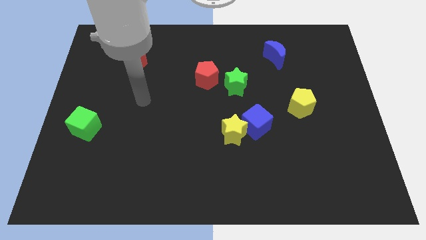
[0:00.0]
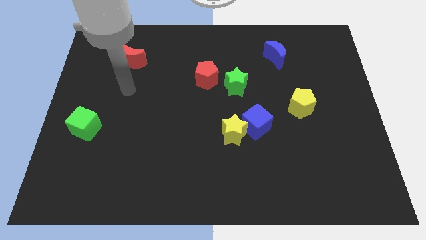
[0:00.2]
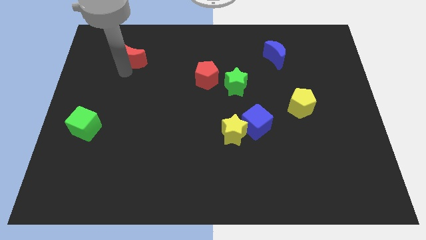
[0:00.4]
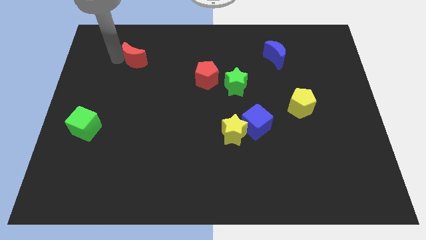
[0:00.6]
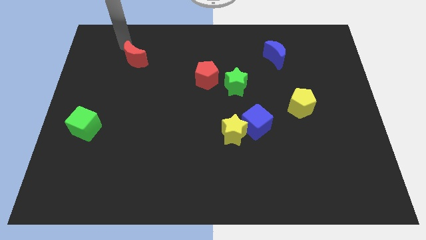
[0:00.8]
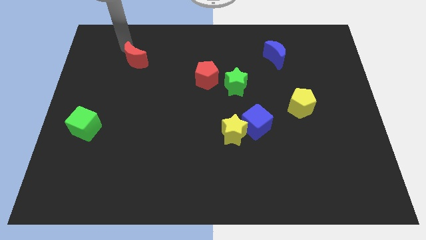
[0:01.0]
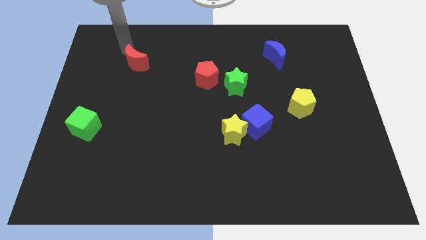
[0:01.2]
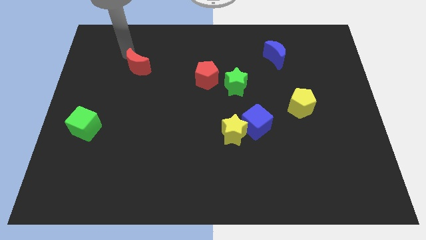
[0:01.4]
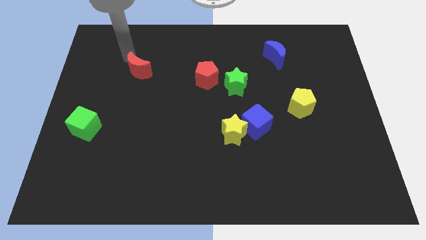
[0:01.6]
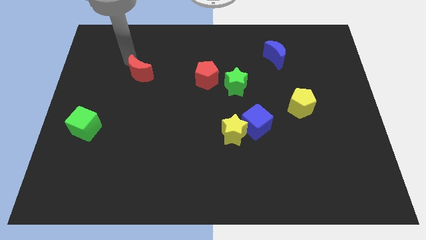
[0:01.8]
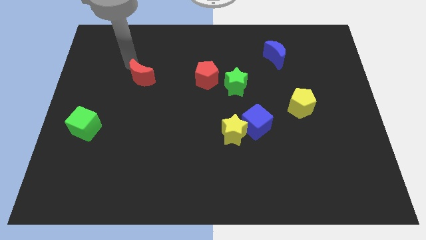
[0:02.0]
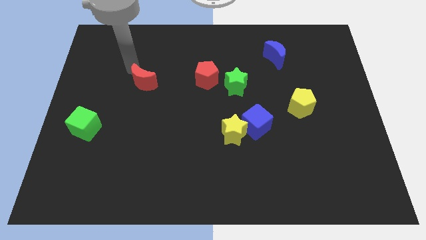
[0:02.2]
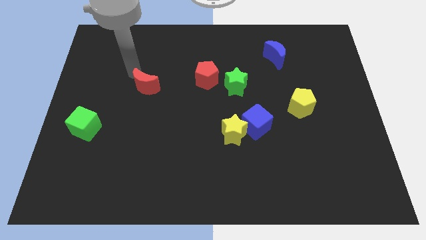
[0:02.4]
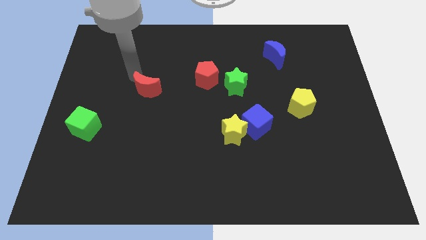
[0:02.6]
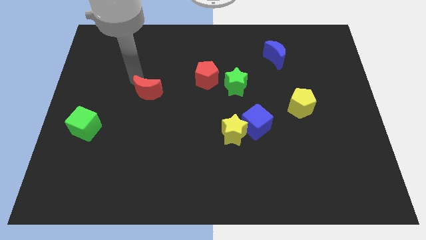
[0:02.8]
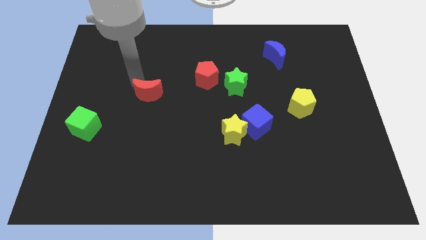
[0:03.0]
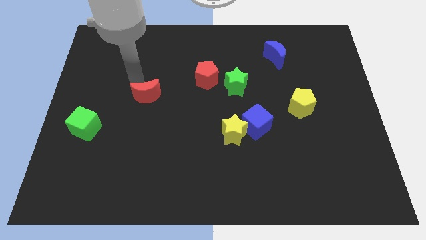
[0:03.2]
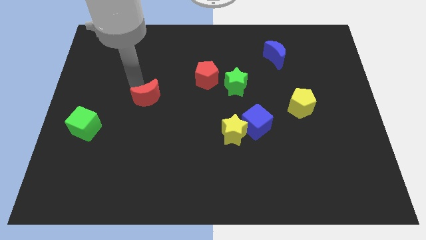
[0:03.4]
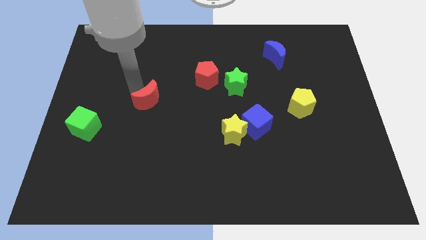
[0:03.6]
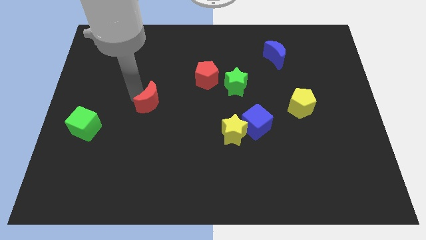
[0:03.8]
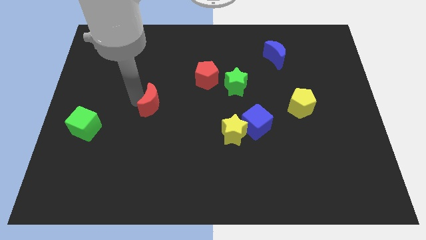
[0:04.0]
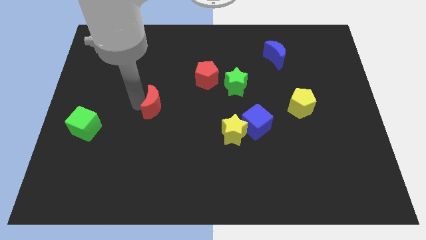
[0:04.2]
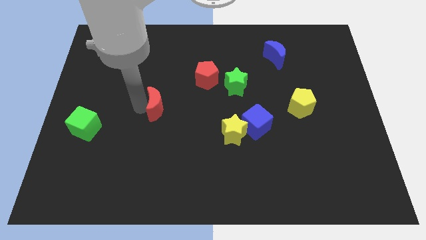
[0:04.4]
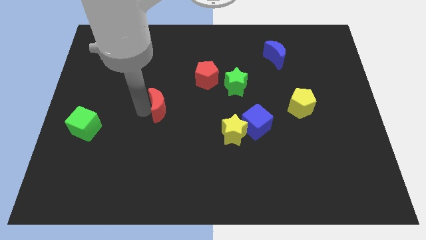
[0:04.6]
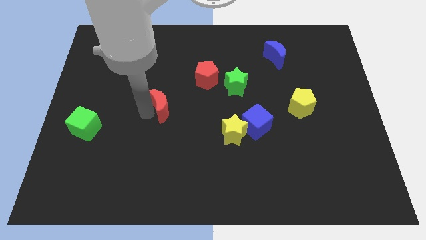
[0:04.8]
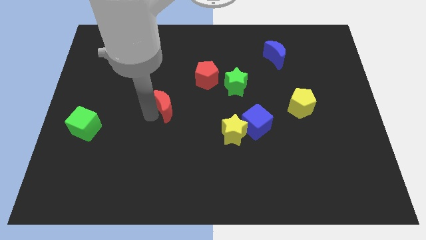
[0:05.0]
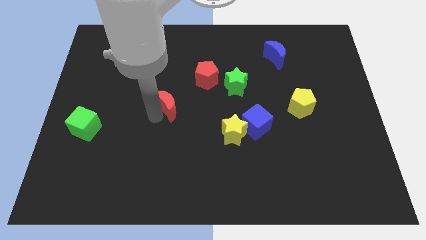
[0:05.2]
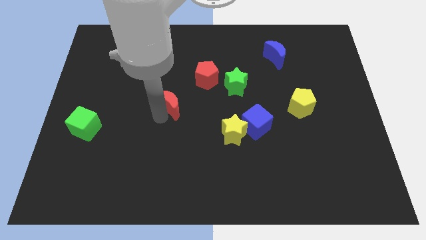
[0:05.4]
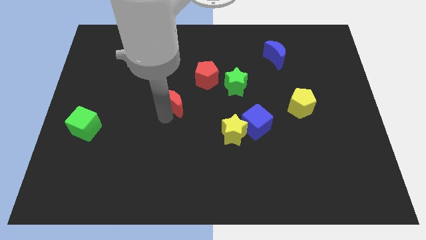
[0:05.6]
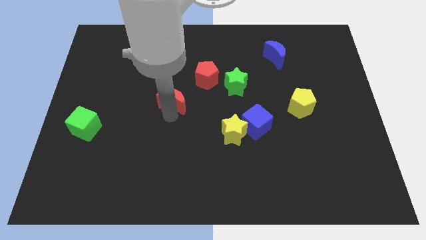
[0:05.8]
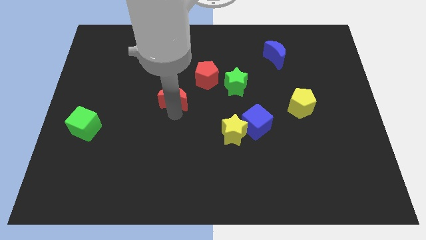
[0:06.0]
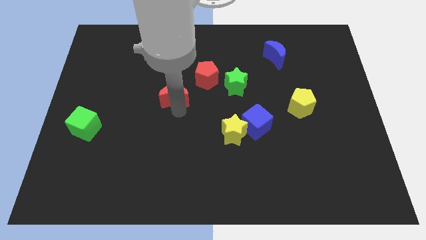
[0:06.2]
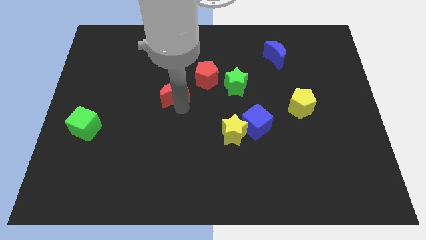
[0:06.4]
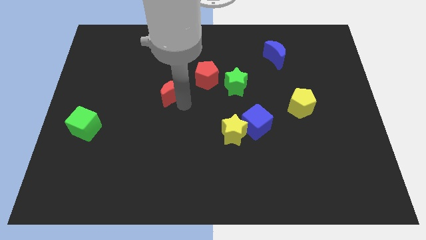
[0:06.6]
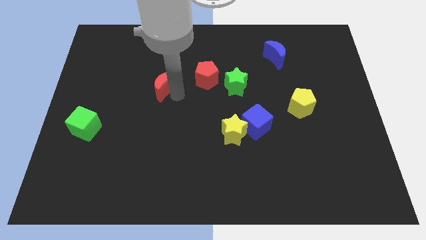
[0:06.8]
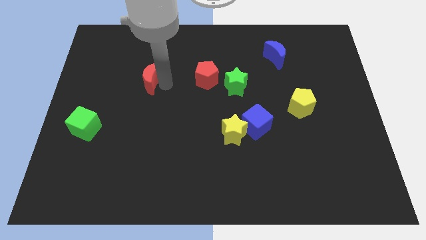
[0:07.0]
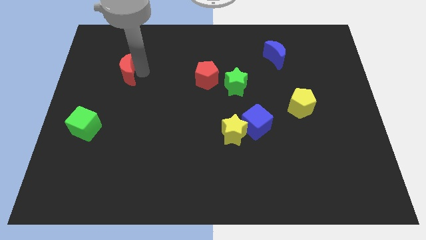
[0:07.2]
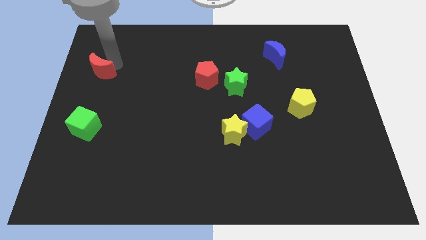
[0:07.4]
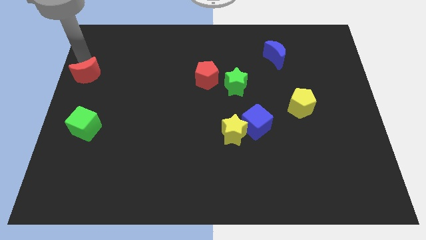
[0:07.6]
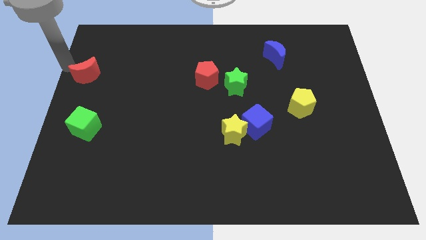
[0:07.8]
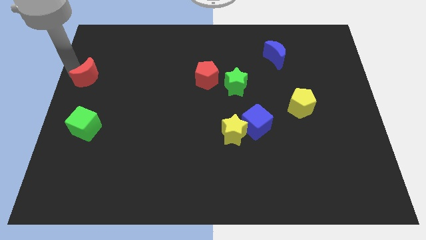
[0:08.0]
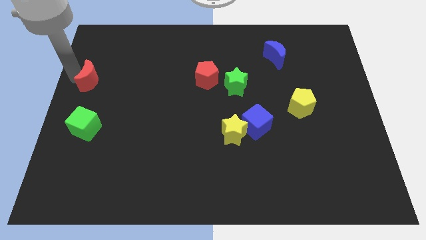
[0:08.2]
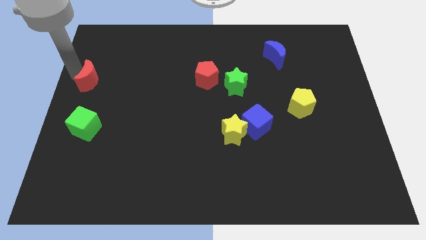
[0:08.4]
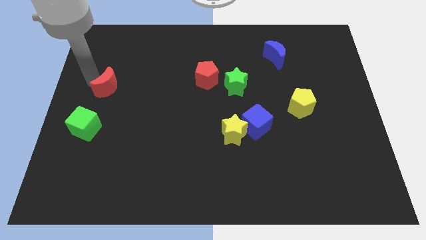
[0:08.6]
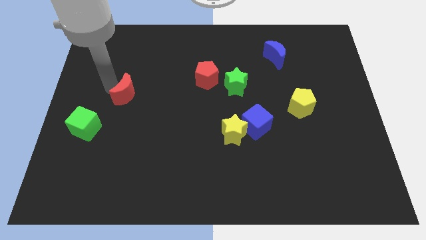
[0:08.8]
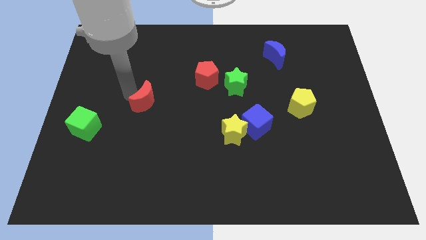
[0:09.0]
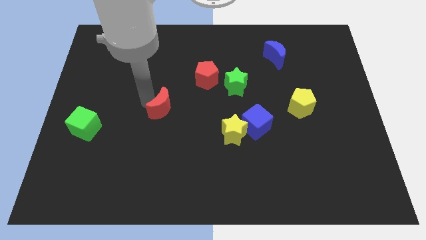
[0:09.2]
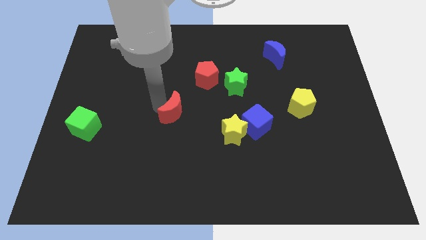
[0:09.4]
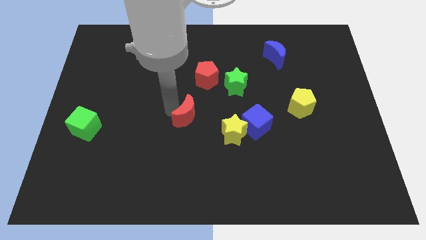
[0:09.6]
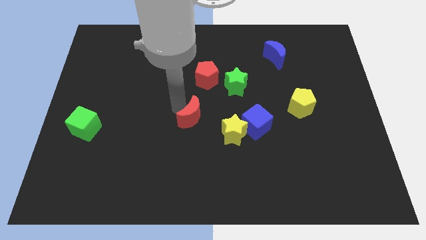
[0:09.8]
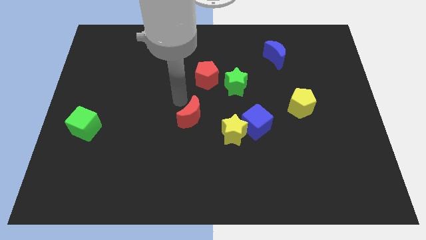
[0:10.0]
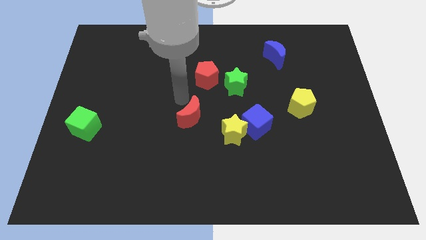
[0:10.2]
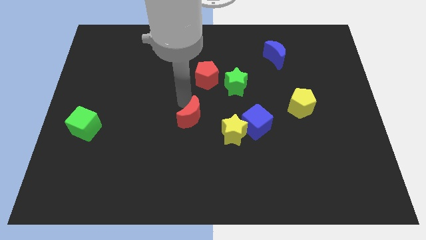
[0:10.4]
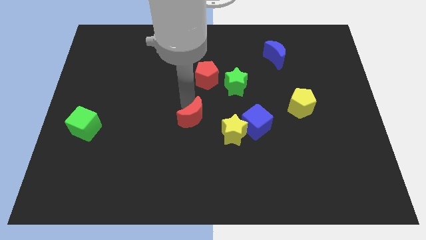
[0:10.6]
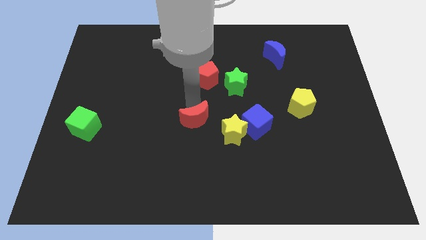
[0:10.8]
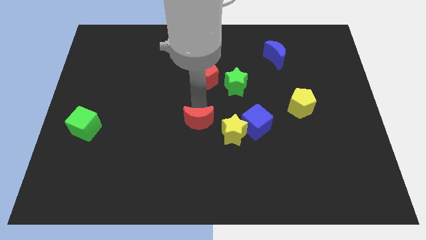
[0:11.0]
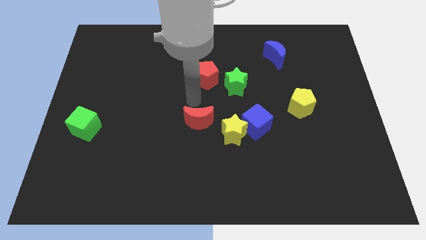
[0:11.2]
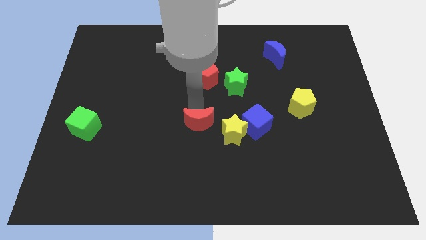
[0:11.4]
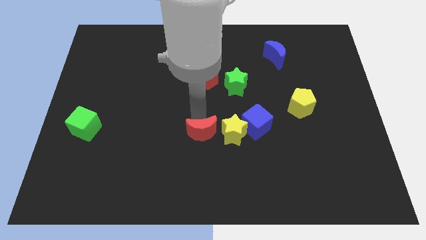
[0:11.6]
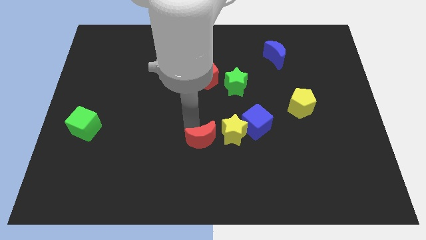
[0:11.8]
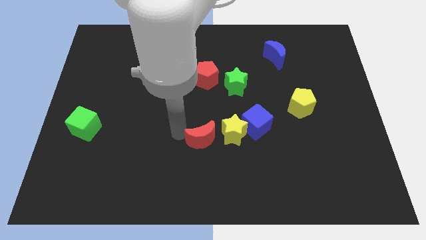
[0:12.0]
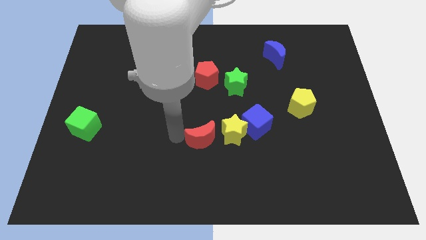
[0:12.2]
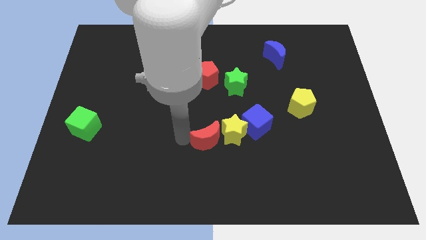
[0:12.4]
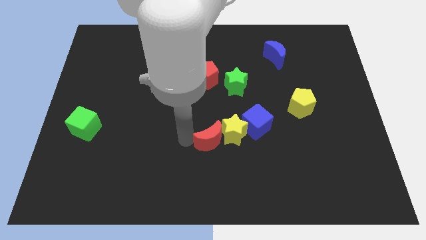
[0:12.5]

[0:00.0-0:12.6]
put the red moon to the bottom left of the blue cube

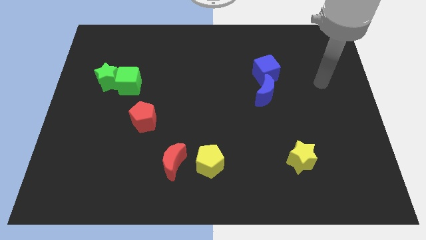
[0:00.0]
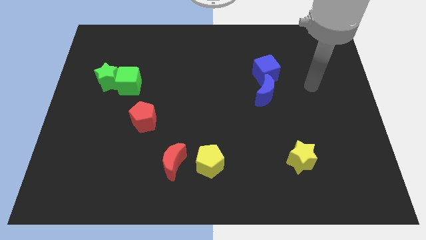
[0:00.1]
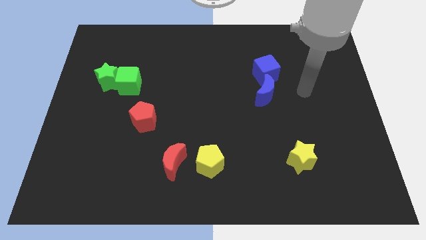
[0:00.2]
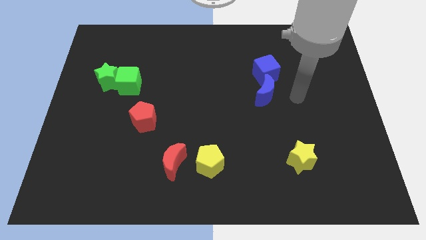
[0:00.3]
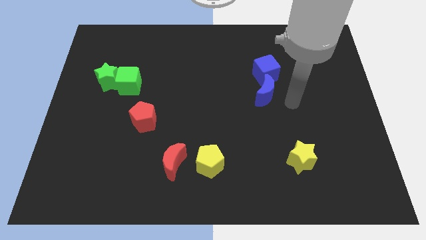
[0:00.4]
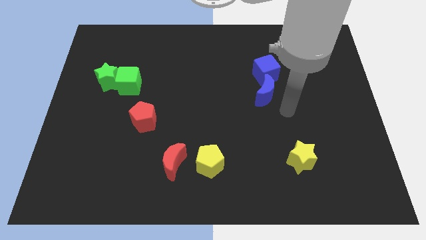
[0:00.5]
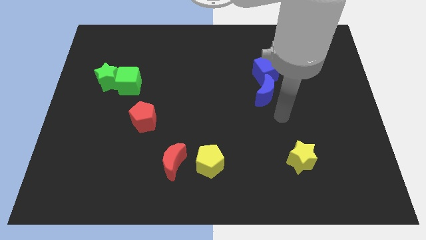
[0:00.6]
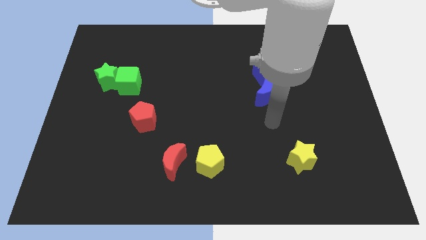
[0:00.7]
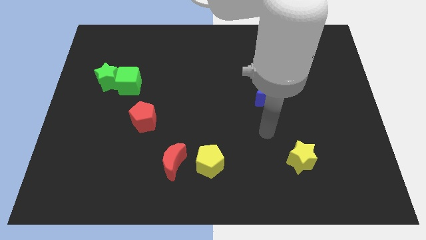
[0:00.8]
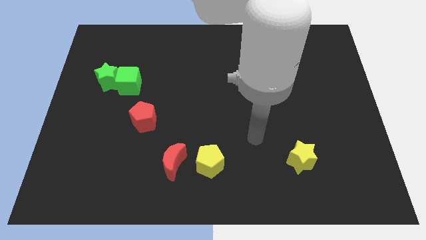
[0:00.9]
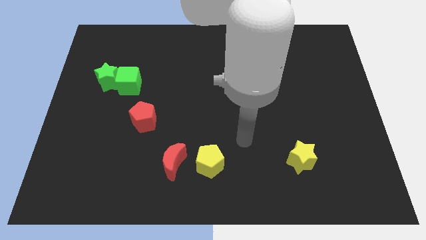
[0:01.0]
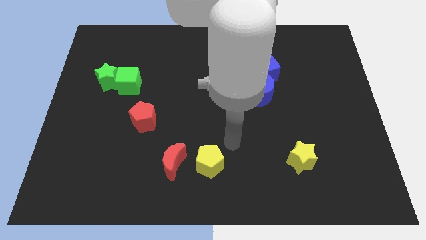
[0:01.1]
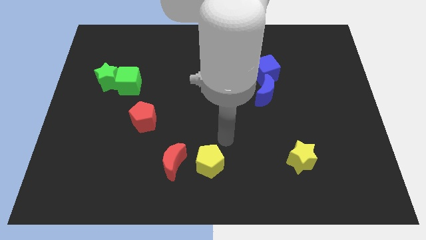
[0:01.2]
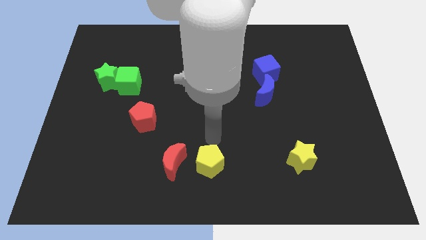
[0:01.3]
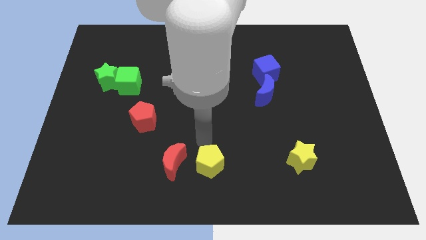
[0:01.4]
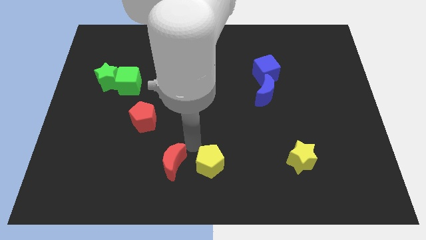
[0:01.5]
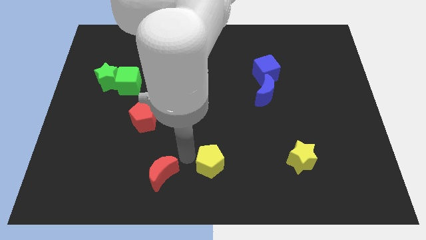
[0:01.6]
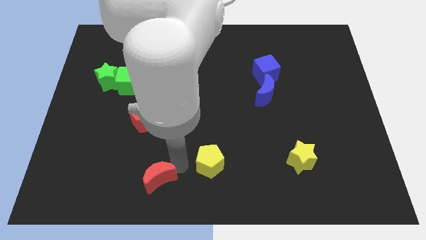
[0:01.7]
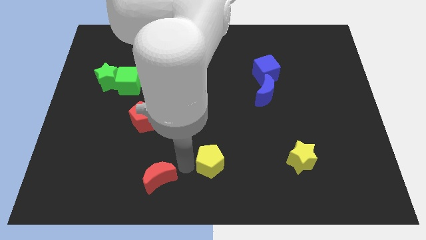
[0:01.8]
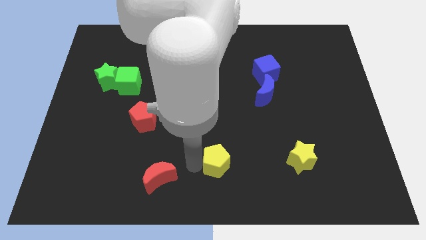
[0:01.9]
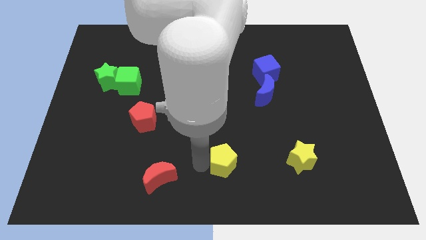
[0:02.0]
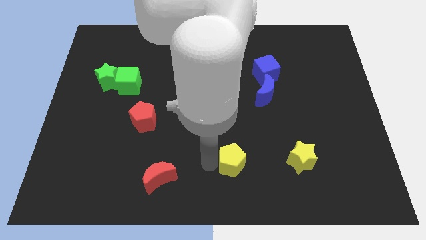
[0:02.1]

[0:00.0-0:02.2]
slide the yellow pentagon to the left of the yellow star
